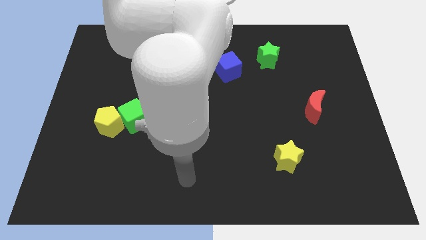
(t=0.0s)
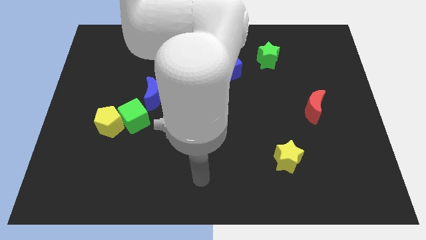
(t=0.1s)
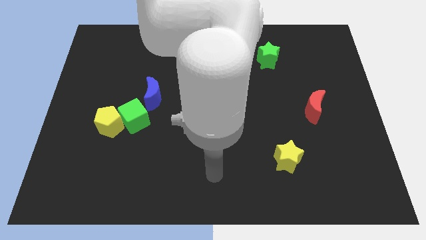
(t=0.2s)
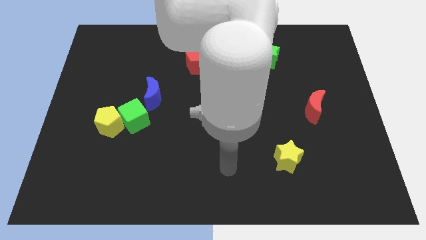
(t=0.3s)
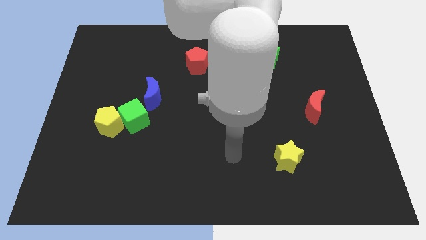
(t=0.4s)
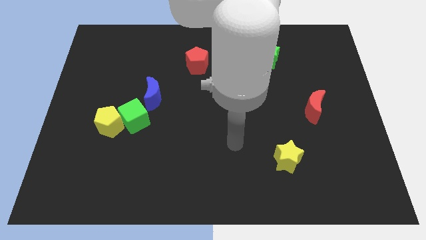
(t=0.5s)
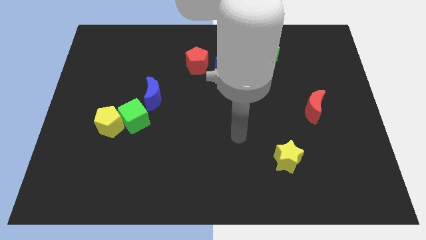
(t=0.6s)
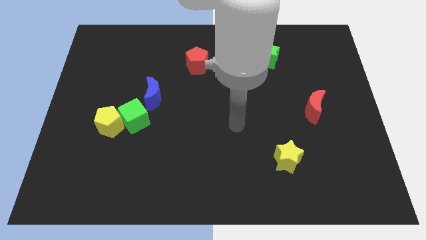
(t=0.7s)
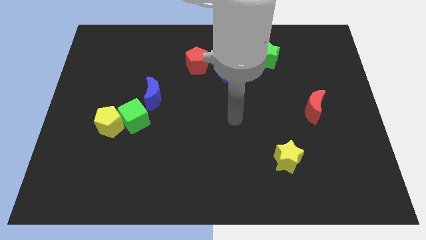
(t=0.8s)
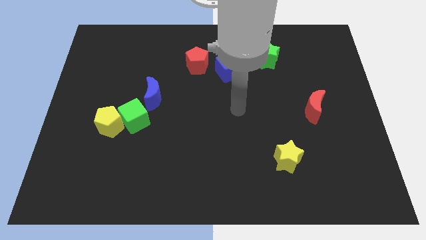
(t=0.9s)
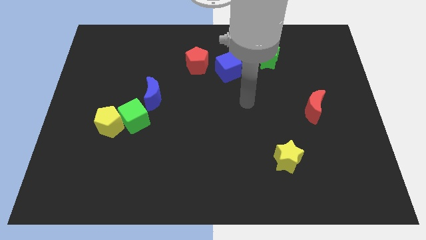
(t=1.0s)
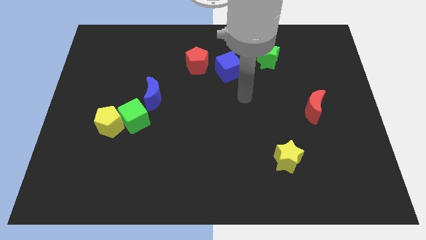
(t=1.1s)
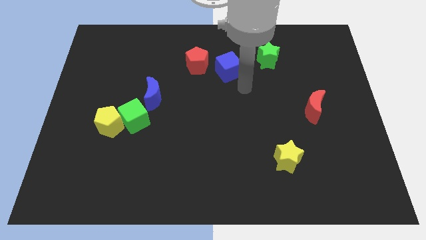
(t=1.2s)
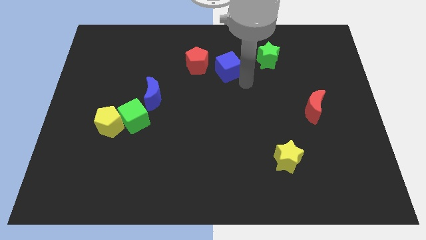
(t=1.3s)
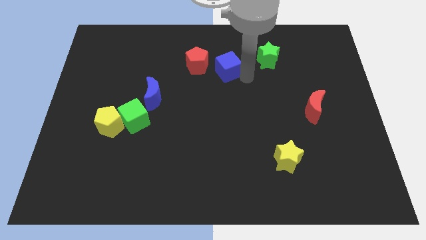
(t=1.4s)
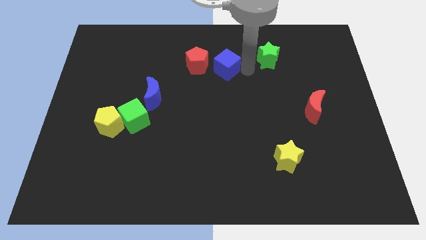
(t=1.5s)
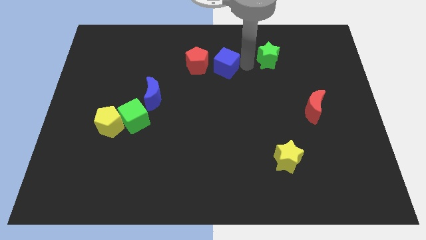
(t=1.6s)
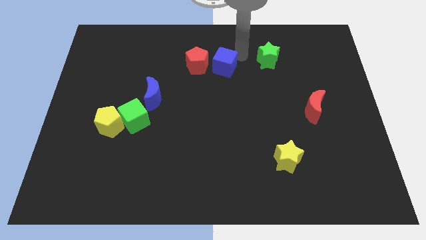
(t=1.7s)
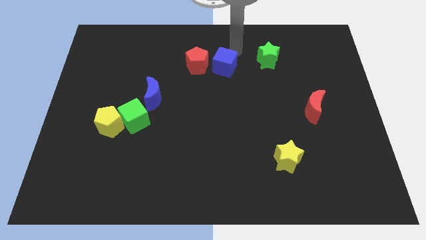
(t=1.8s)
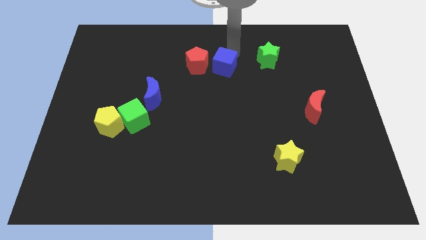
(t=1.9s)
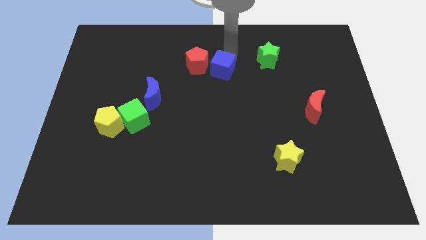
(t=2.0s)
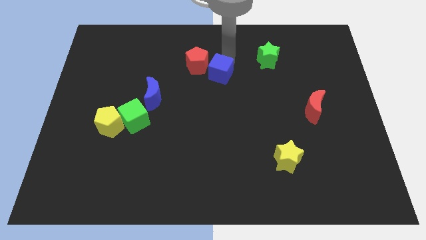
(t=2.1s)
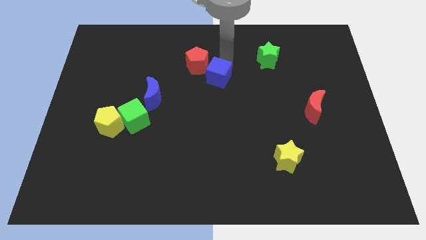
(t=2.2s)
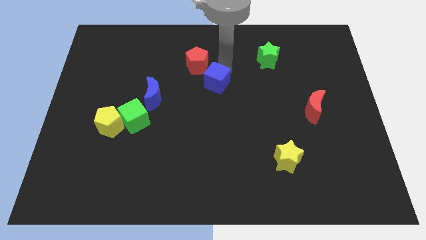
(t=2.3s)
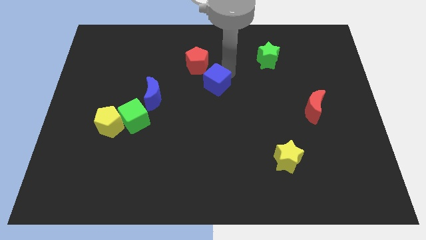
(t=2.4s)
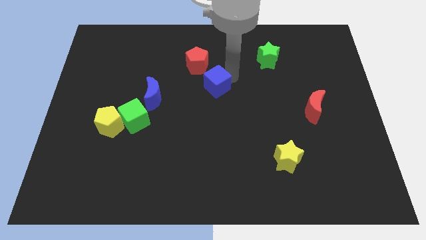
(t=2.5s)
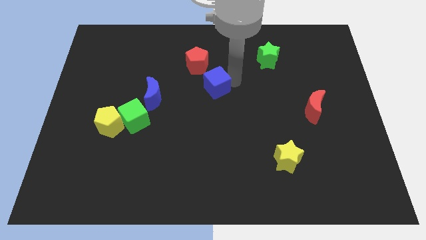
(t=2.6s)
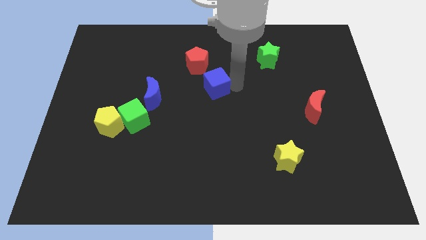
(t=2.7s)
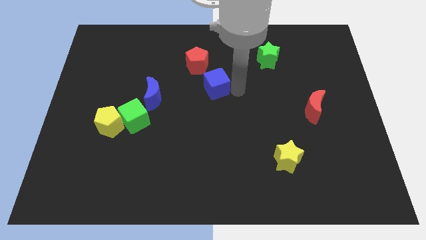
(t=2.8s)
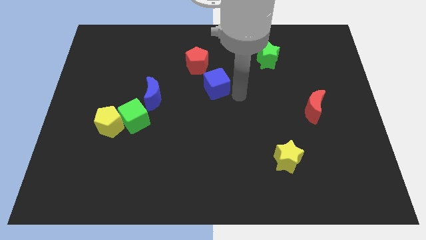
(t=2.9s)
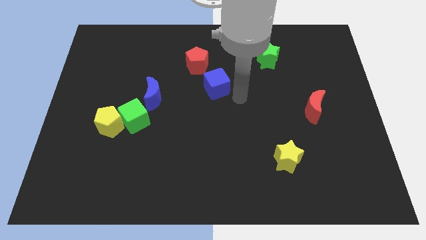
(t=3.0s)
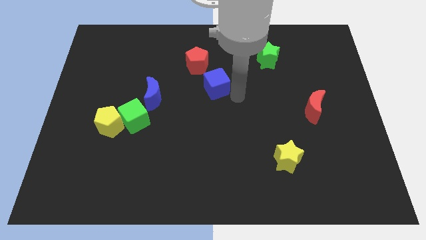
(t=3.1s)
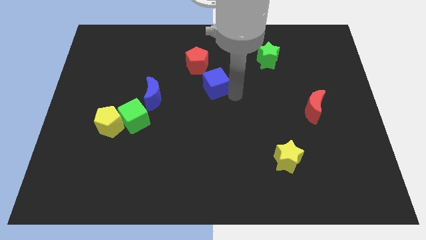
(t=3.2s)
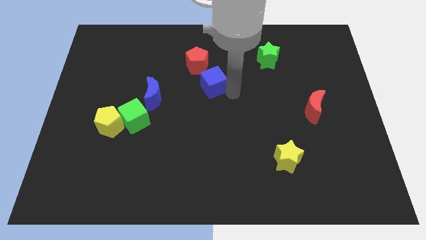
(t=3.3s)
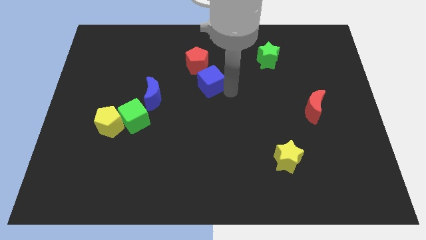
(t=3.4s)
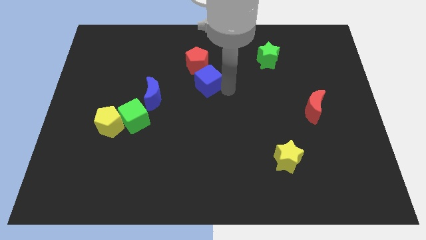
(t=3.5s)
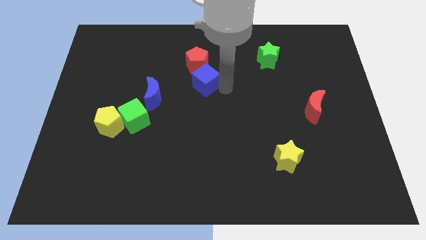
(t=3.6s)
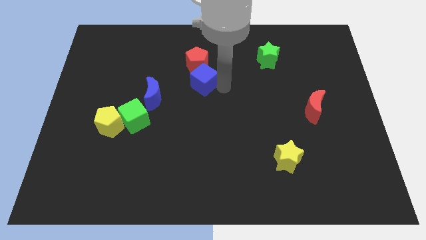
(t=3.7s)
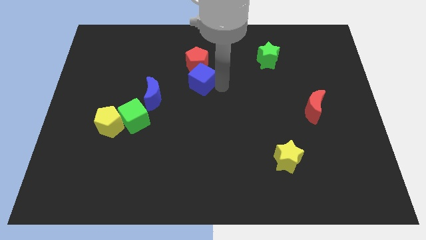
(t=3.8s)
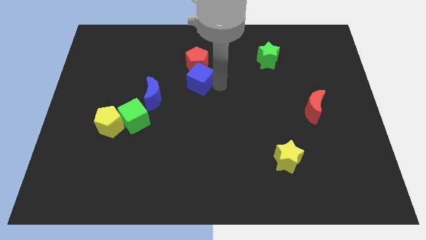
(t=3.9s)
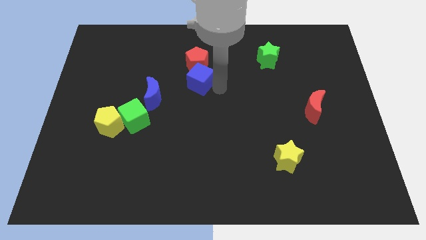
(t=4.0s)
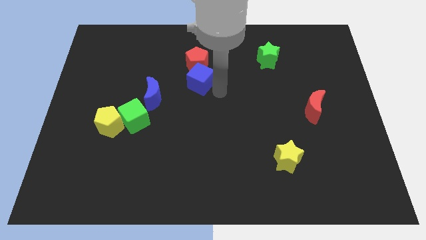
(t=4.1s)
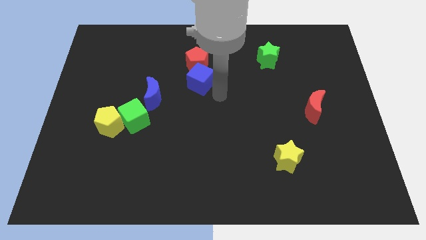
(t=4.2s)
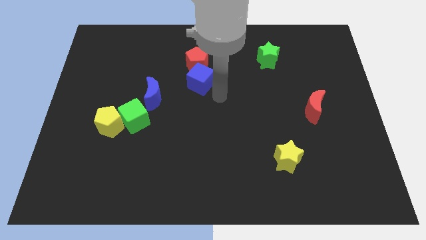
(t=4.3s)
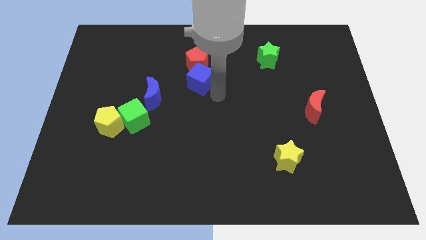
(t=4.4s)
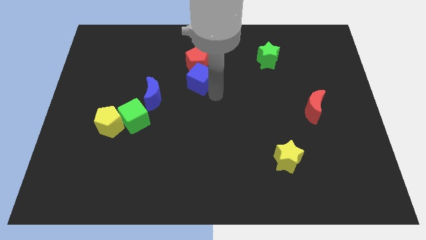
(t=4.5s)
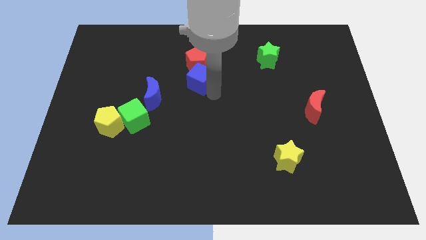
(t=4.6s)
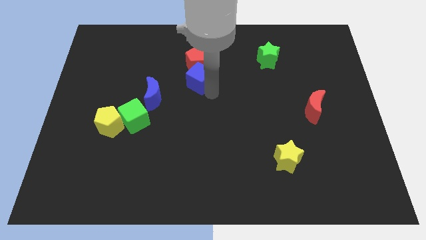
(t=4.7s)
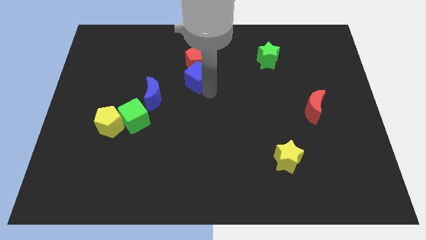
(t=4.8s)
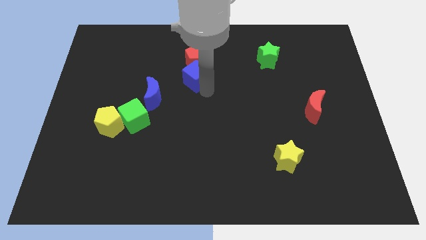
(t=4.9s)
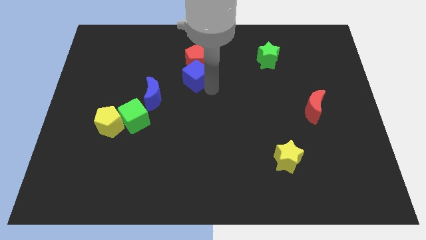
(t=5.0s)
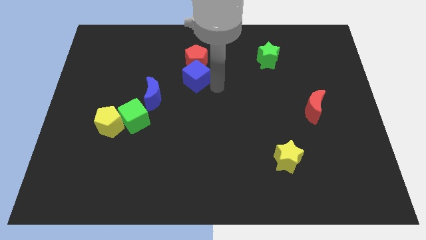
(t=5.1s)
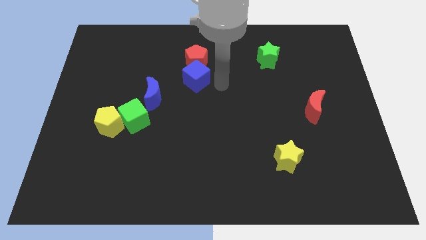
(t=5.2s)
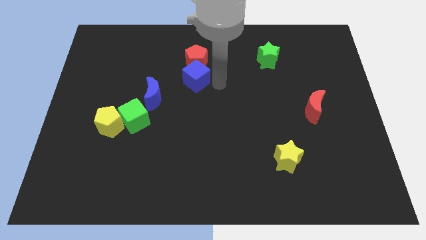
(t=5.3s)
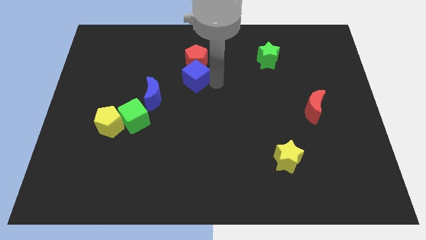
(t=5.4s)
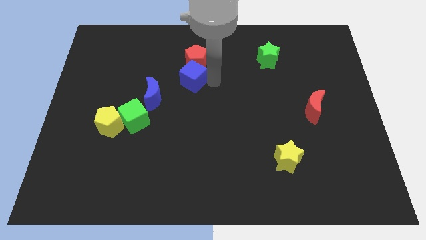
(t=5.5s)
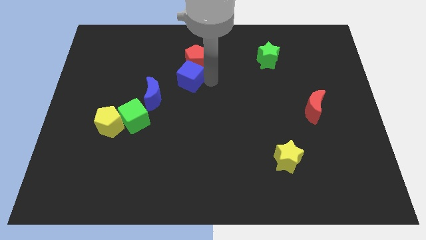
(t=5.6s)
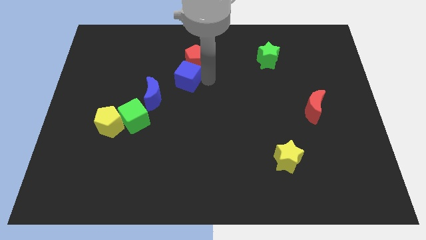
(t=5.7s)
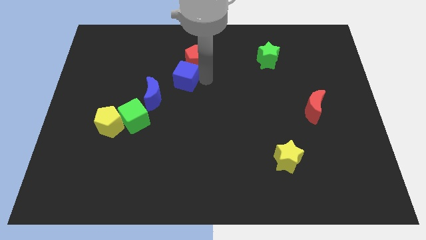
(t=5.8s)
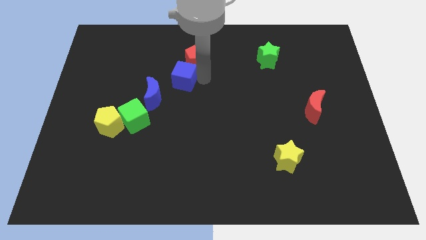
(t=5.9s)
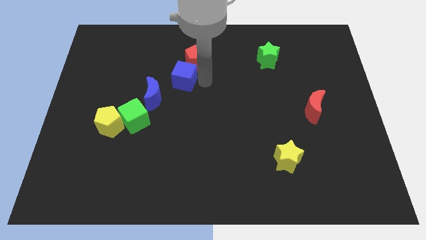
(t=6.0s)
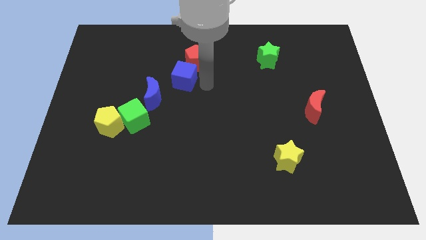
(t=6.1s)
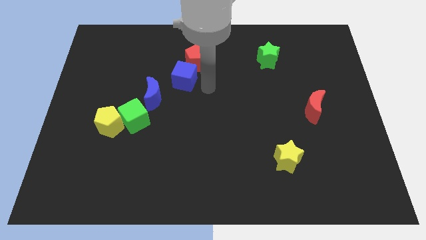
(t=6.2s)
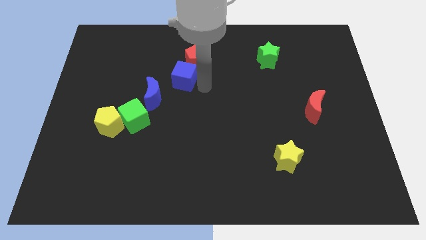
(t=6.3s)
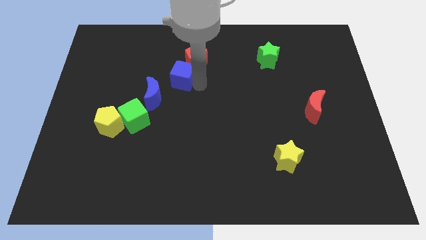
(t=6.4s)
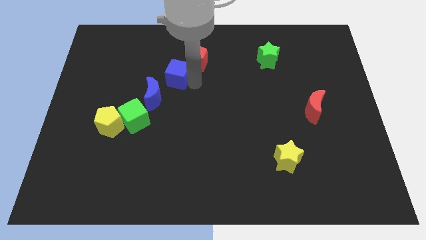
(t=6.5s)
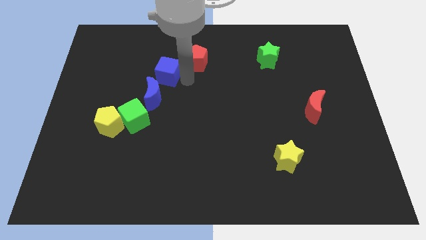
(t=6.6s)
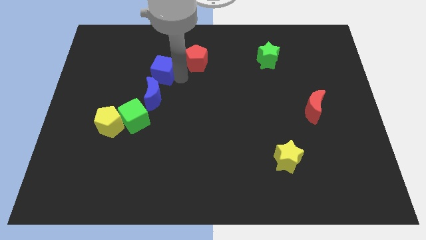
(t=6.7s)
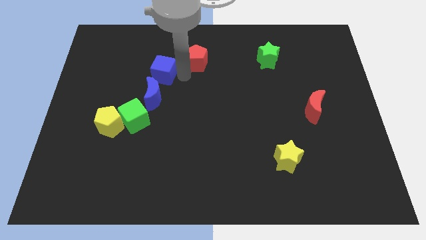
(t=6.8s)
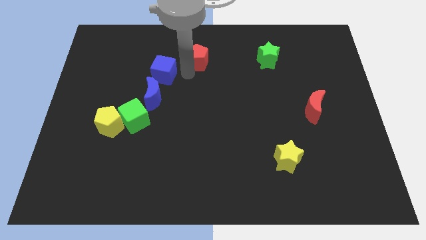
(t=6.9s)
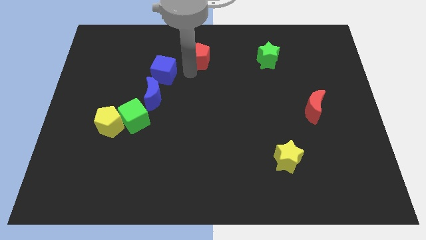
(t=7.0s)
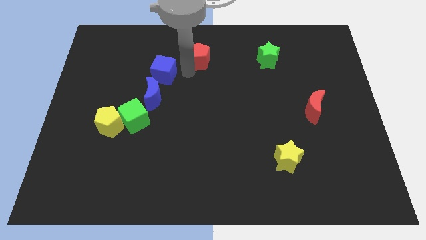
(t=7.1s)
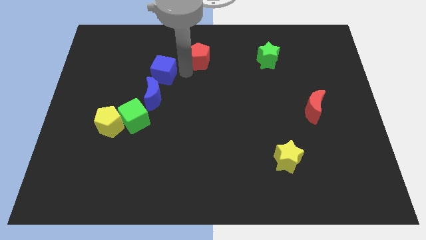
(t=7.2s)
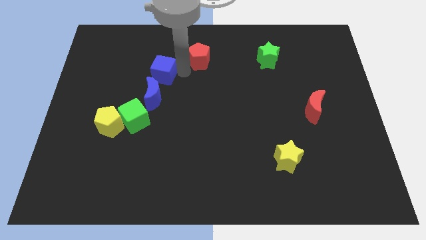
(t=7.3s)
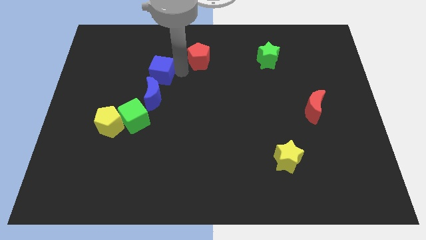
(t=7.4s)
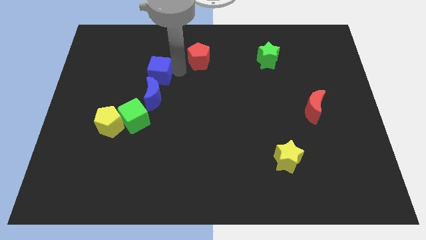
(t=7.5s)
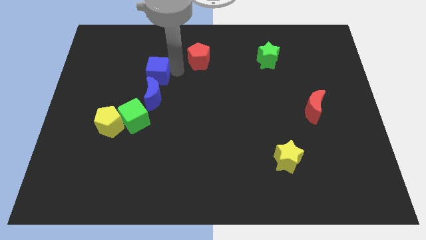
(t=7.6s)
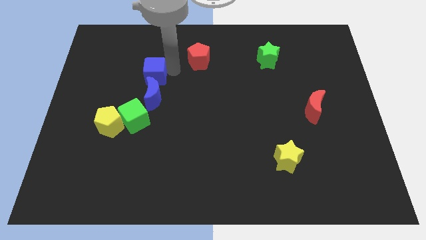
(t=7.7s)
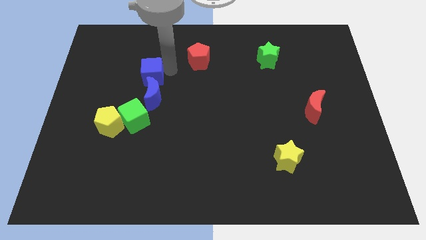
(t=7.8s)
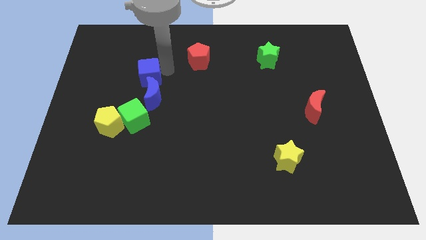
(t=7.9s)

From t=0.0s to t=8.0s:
slide the blue cube left

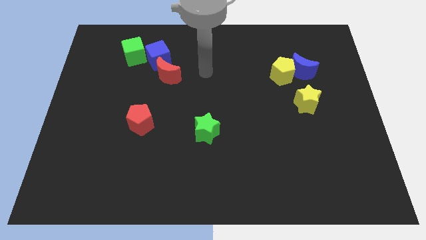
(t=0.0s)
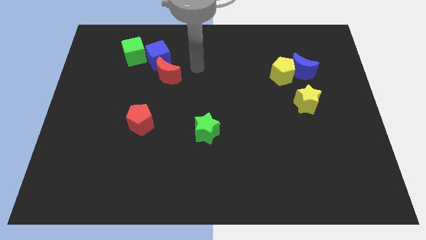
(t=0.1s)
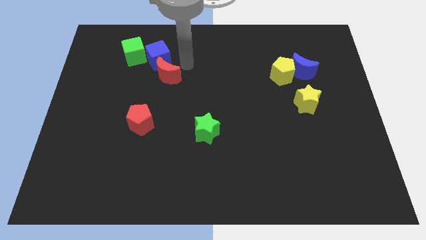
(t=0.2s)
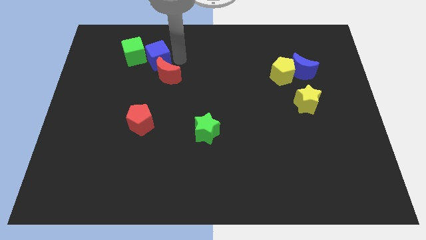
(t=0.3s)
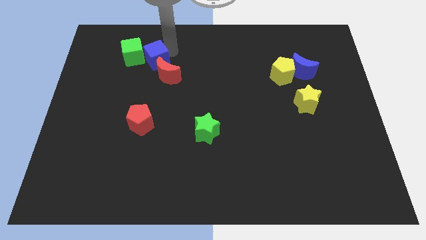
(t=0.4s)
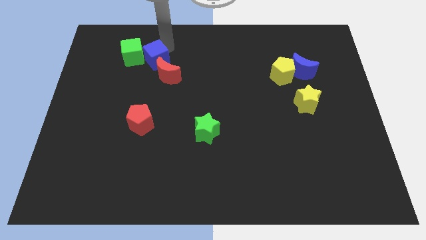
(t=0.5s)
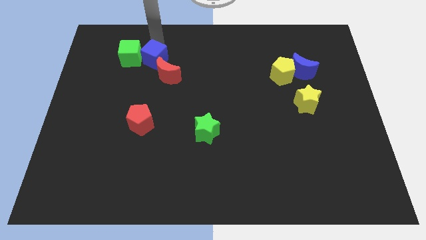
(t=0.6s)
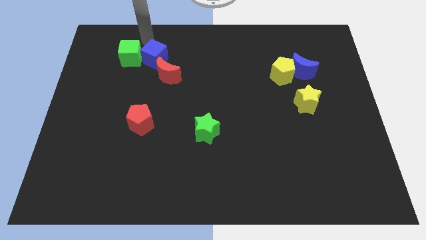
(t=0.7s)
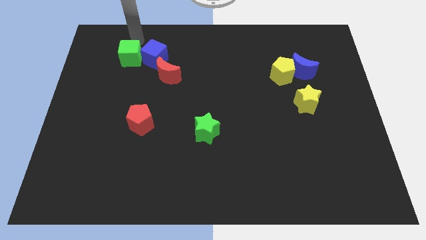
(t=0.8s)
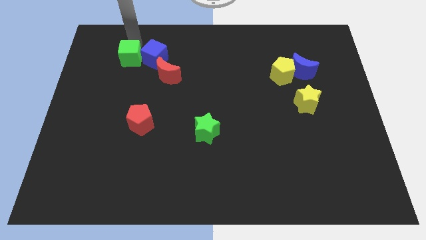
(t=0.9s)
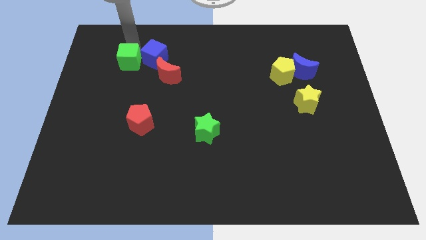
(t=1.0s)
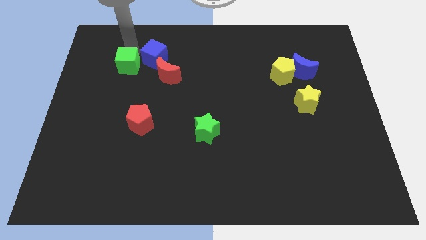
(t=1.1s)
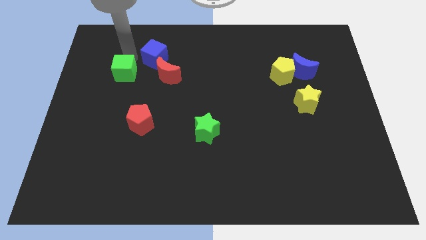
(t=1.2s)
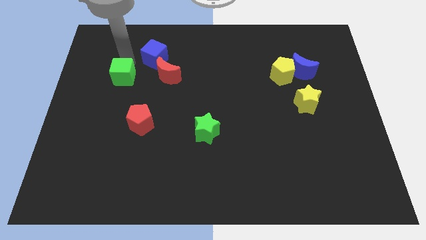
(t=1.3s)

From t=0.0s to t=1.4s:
slide the green cube somewhat down
